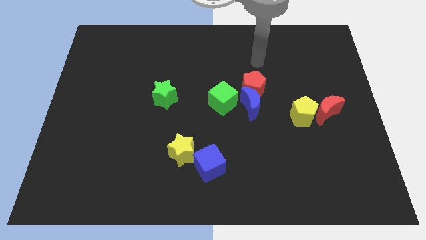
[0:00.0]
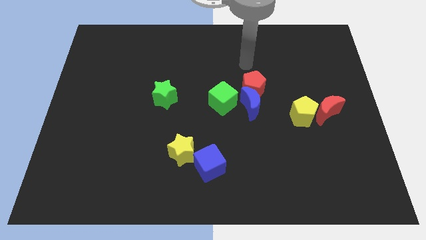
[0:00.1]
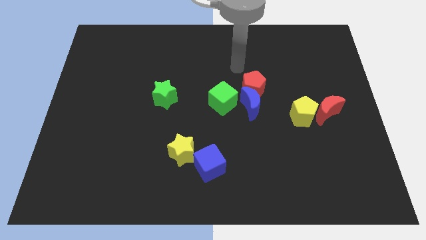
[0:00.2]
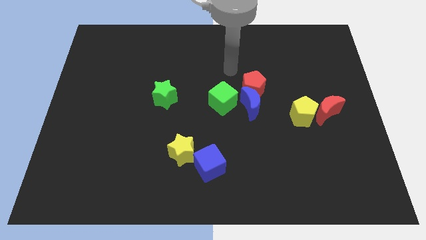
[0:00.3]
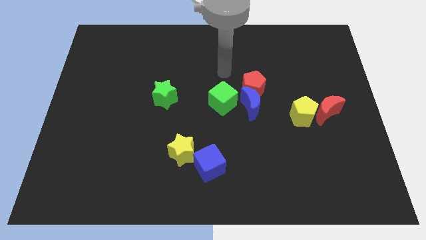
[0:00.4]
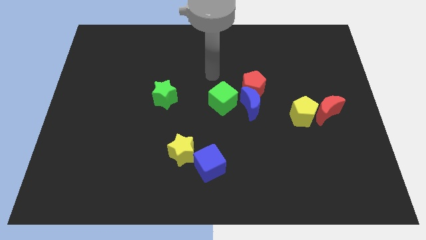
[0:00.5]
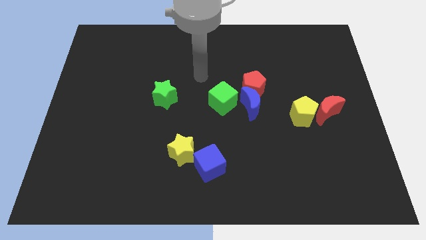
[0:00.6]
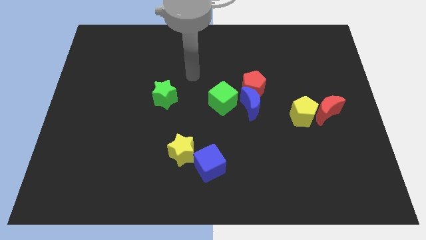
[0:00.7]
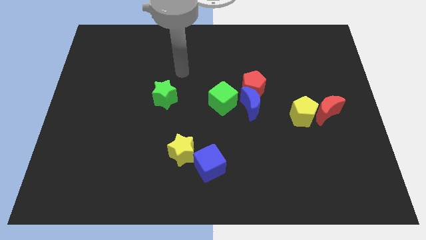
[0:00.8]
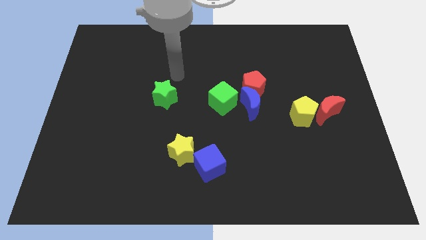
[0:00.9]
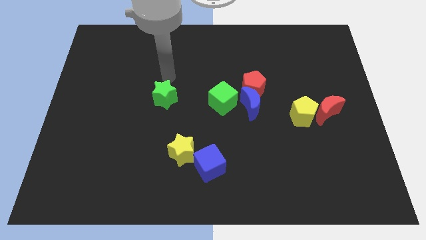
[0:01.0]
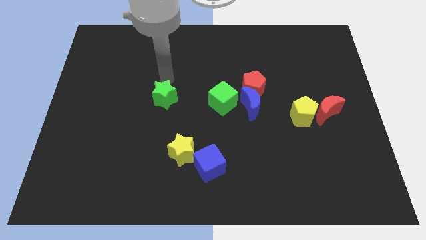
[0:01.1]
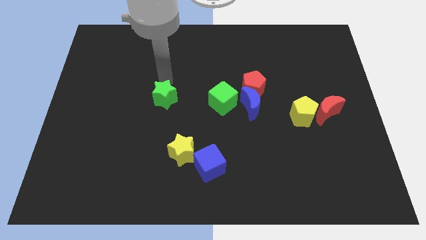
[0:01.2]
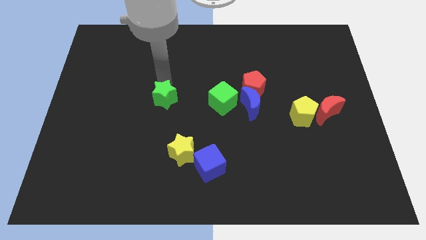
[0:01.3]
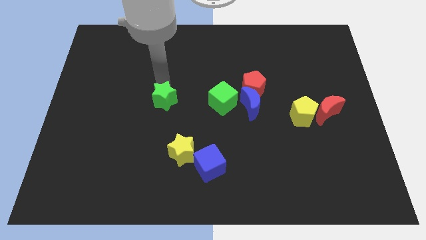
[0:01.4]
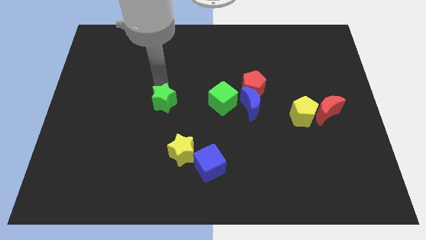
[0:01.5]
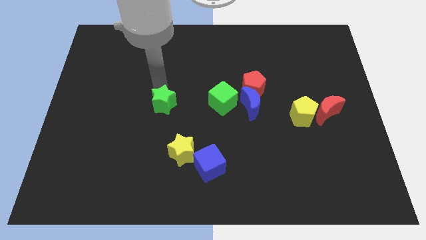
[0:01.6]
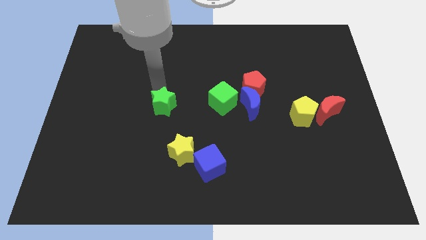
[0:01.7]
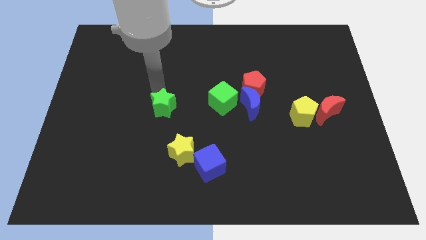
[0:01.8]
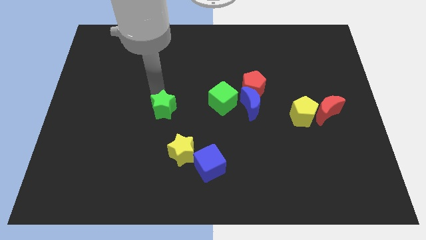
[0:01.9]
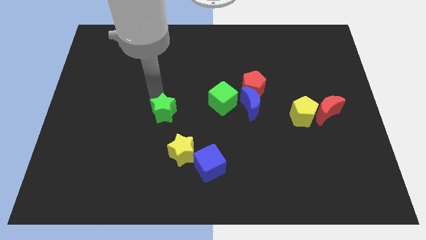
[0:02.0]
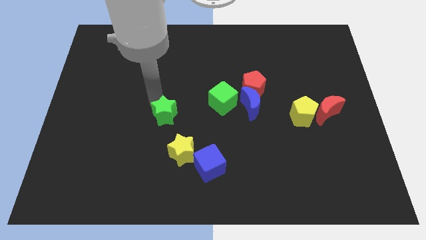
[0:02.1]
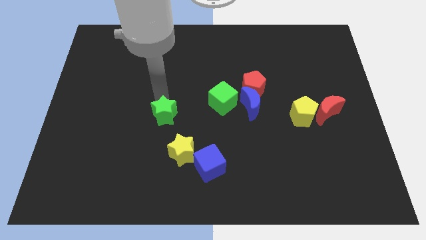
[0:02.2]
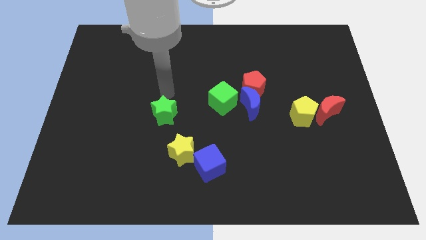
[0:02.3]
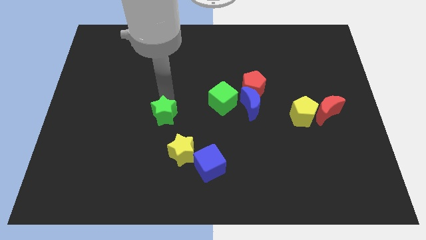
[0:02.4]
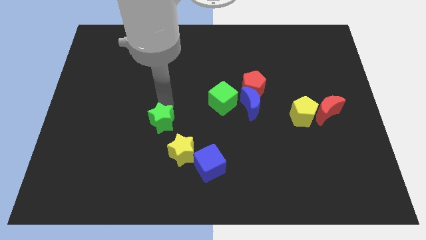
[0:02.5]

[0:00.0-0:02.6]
push the green star downwards a bit

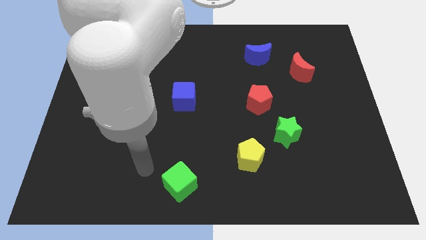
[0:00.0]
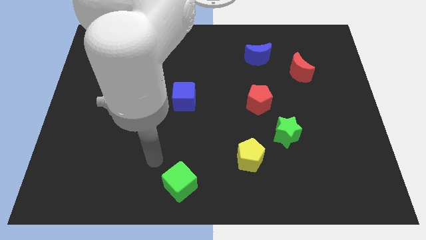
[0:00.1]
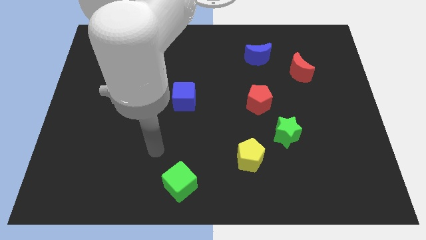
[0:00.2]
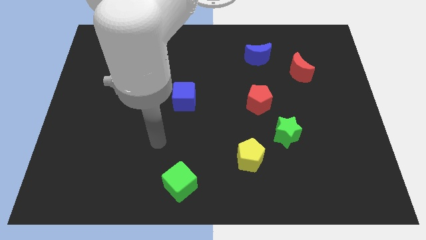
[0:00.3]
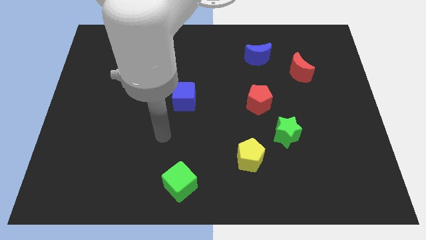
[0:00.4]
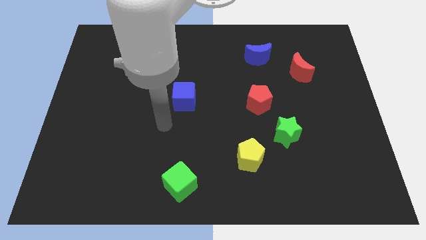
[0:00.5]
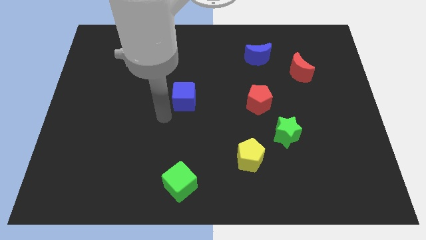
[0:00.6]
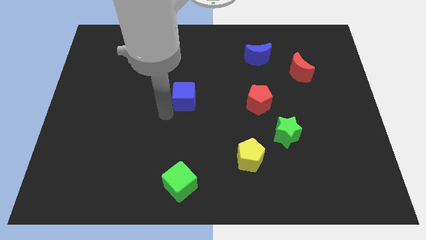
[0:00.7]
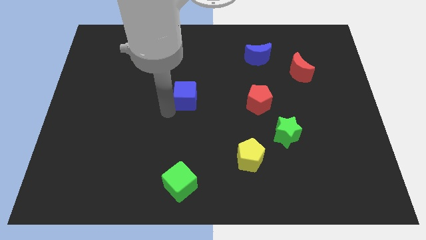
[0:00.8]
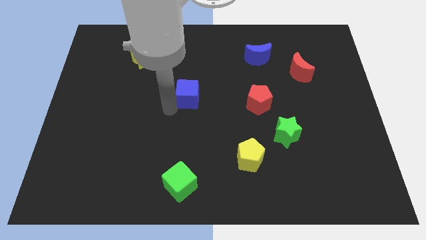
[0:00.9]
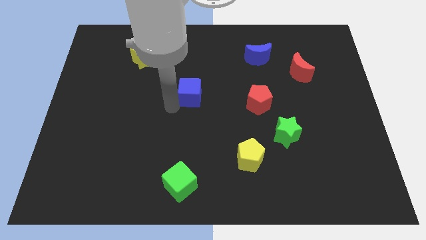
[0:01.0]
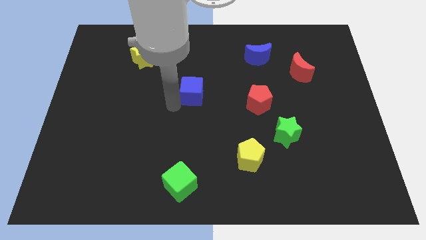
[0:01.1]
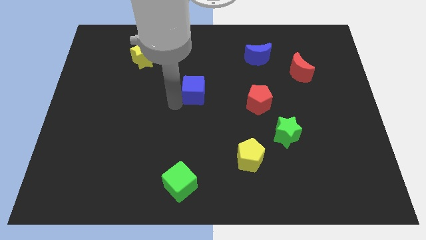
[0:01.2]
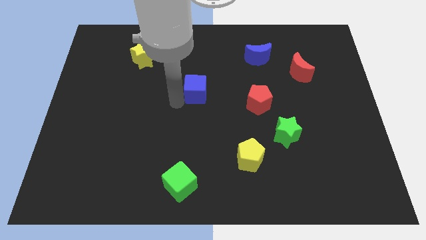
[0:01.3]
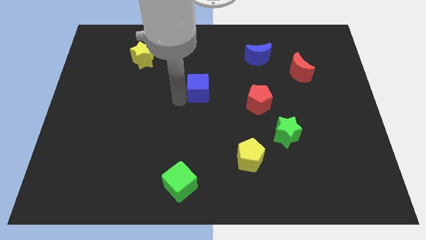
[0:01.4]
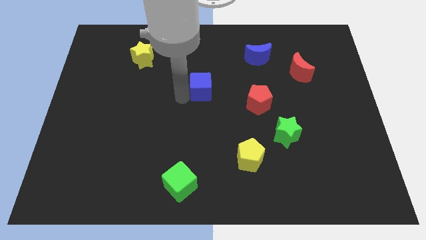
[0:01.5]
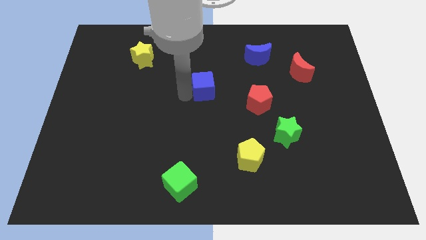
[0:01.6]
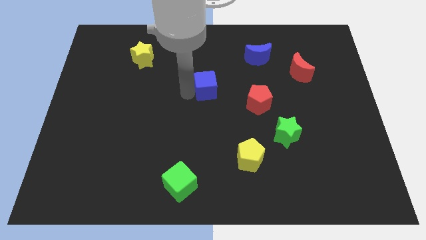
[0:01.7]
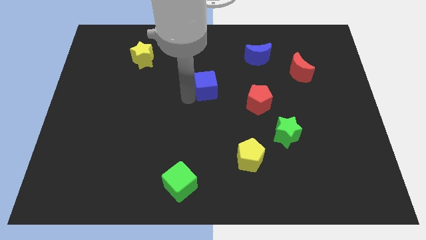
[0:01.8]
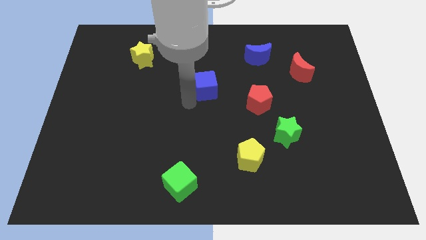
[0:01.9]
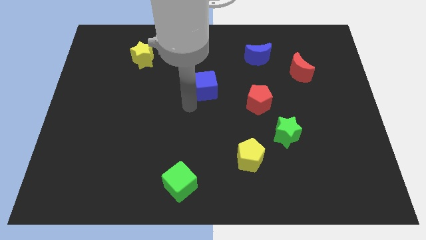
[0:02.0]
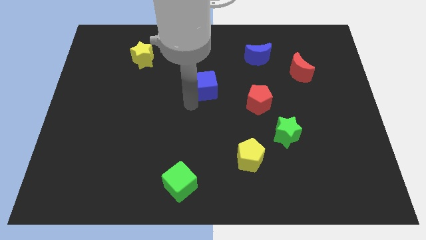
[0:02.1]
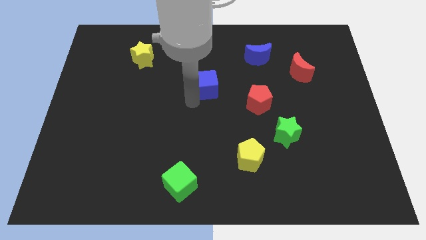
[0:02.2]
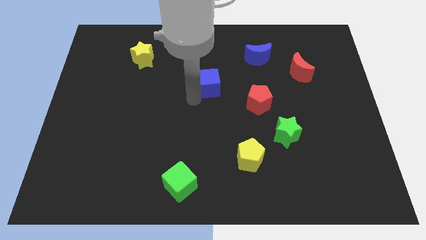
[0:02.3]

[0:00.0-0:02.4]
push the blue cube slightly up and right diagonally

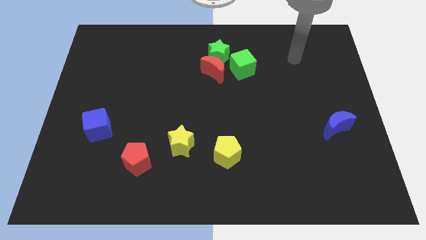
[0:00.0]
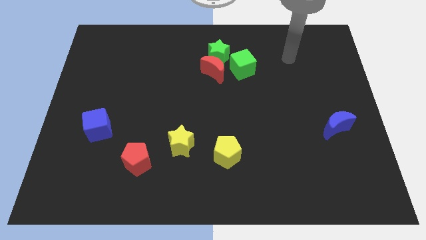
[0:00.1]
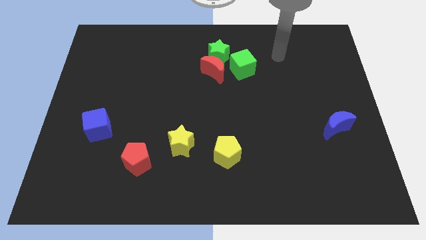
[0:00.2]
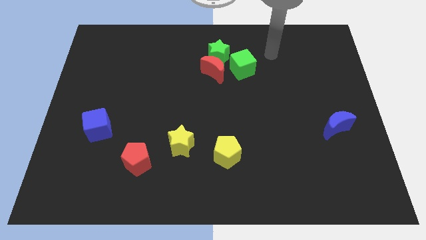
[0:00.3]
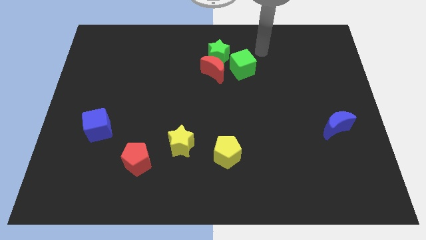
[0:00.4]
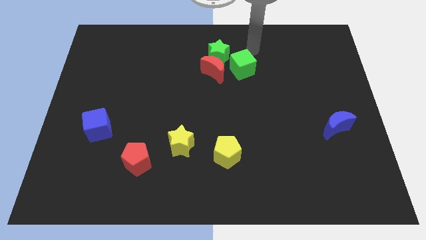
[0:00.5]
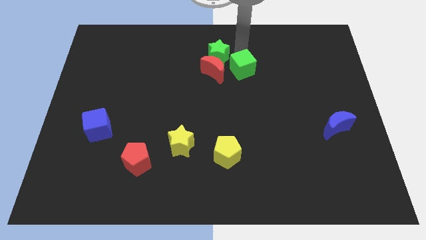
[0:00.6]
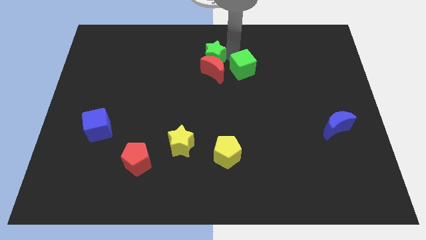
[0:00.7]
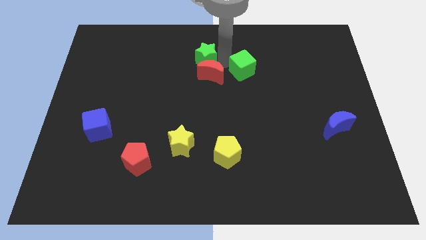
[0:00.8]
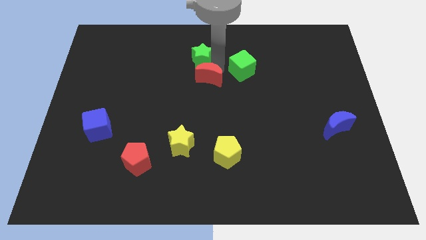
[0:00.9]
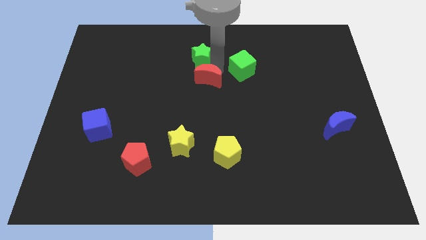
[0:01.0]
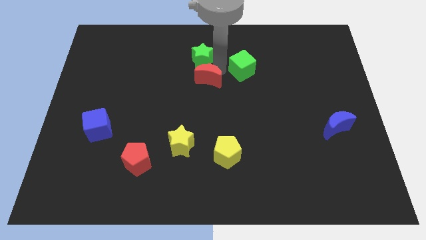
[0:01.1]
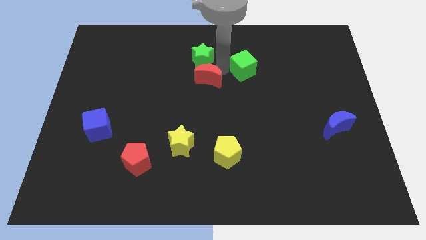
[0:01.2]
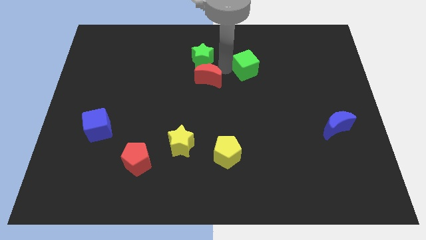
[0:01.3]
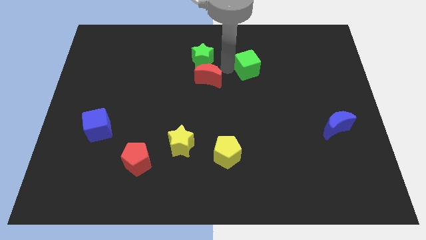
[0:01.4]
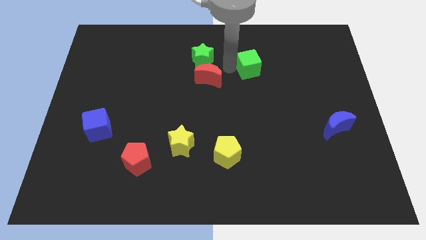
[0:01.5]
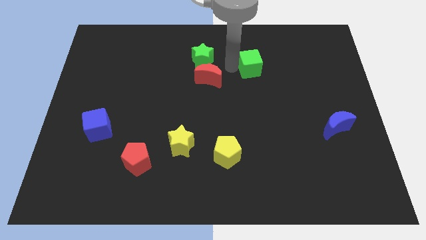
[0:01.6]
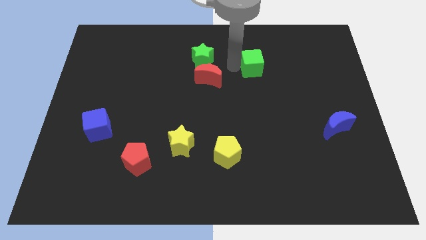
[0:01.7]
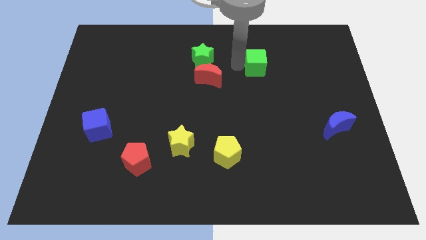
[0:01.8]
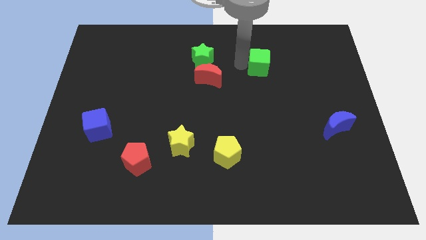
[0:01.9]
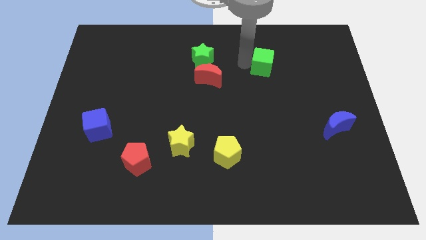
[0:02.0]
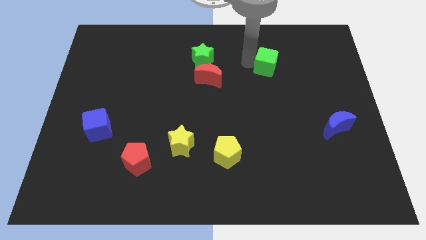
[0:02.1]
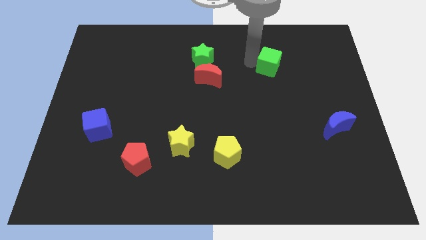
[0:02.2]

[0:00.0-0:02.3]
push the green cube a little bit to the right

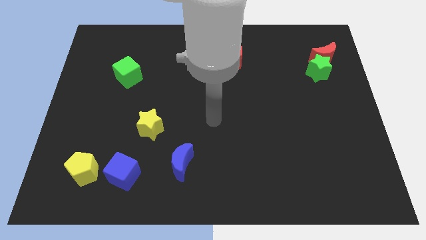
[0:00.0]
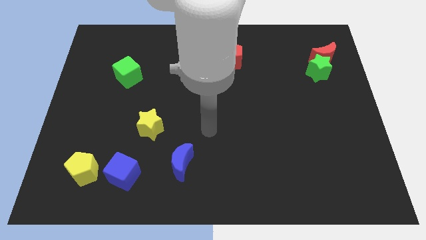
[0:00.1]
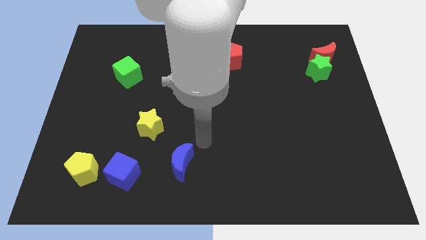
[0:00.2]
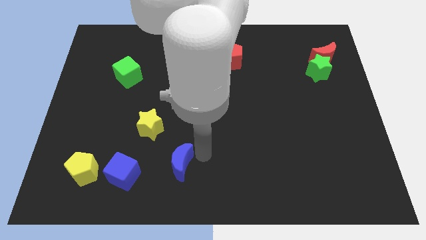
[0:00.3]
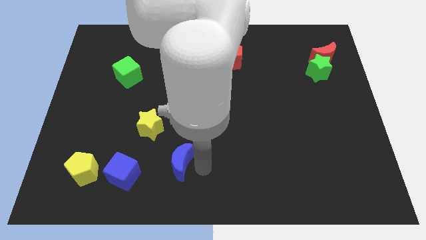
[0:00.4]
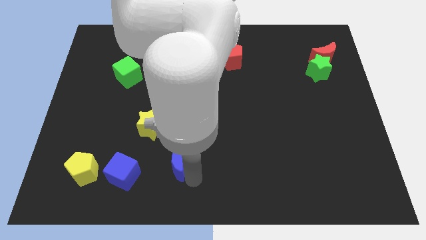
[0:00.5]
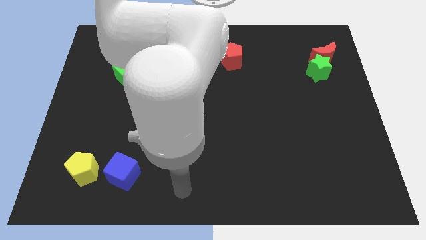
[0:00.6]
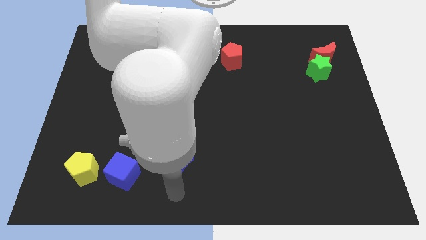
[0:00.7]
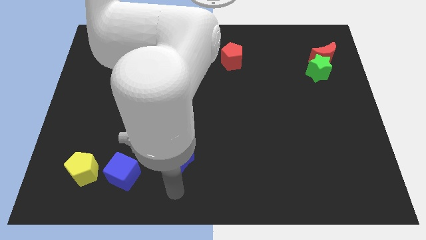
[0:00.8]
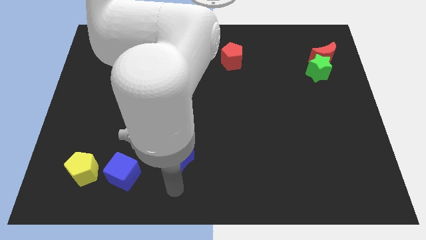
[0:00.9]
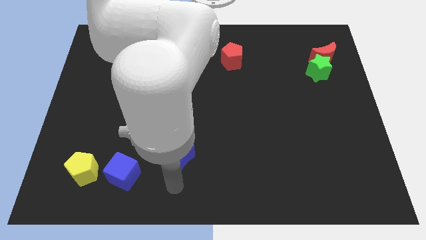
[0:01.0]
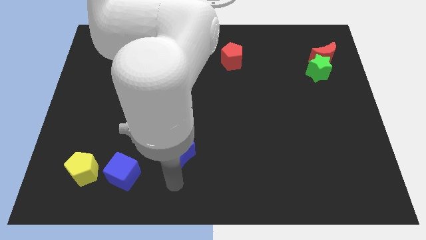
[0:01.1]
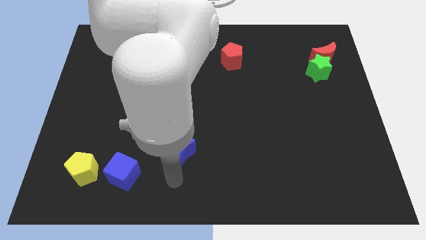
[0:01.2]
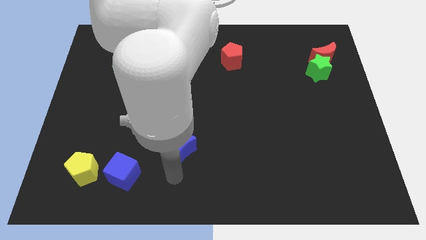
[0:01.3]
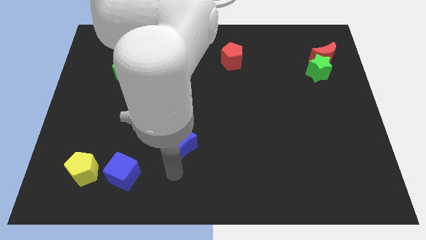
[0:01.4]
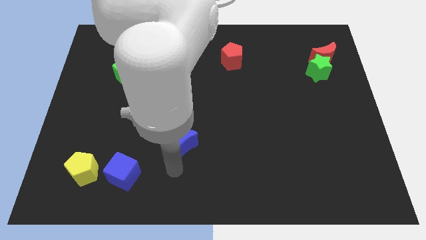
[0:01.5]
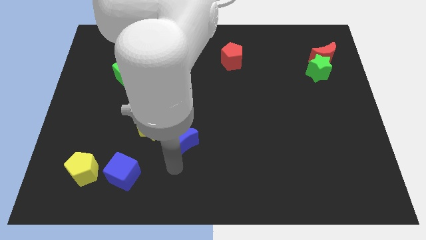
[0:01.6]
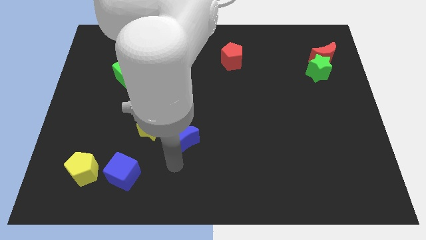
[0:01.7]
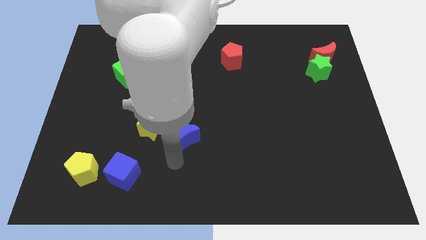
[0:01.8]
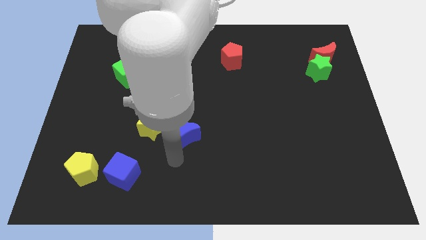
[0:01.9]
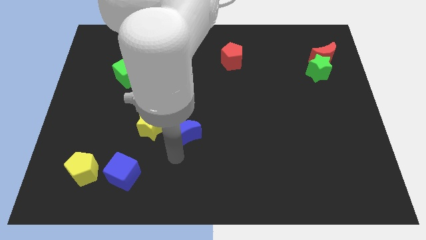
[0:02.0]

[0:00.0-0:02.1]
move the blue moon up a little bit
